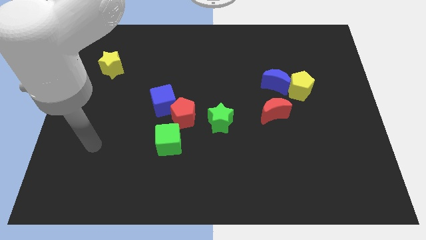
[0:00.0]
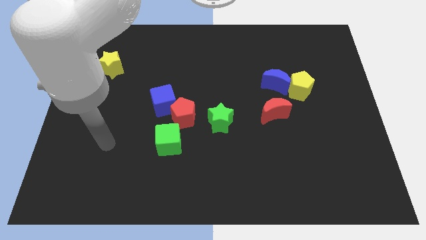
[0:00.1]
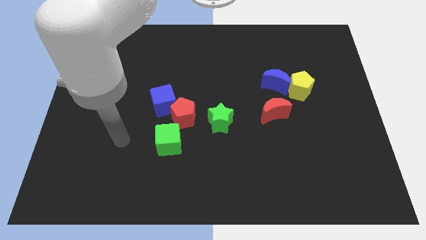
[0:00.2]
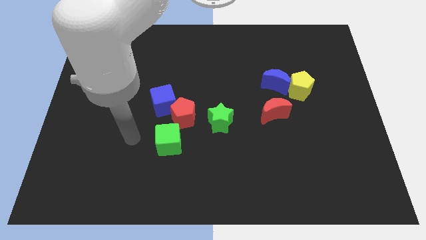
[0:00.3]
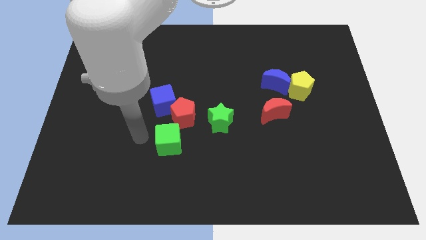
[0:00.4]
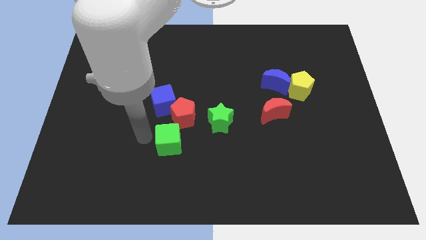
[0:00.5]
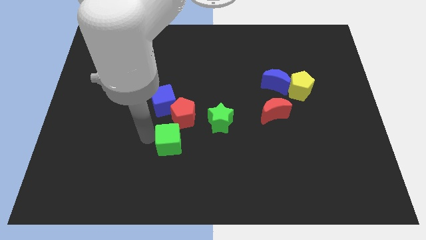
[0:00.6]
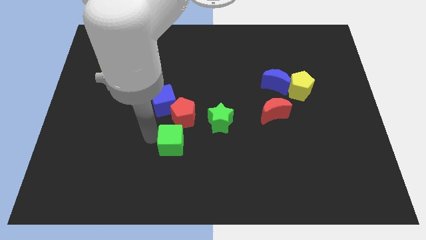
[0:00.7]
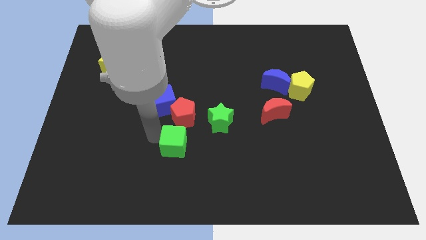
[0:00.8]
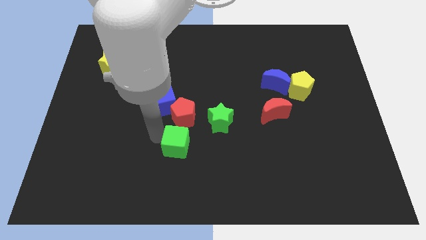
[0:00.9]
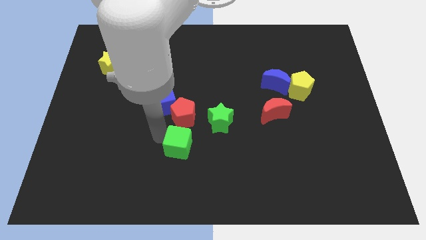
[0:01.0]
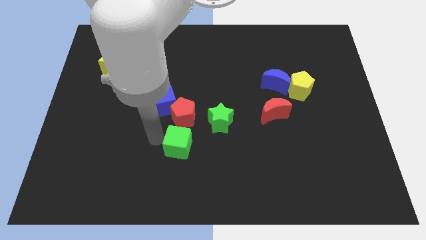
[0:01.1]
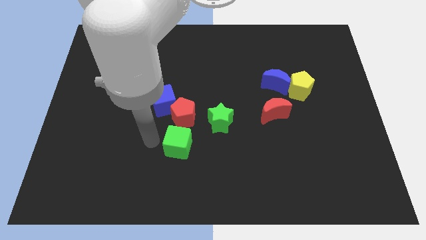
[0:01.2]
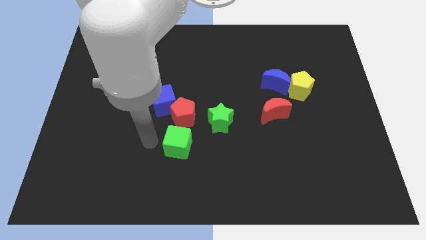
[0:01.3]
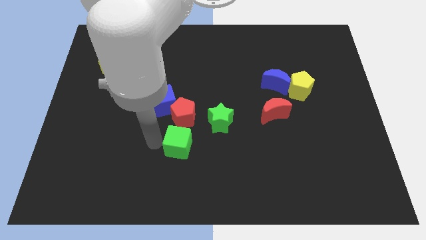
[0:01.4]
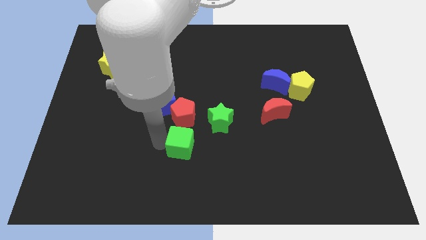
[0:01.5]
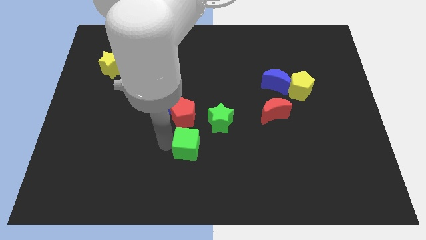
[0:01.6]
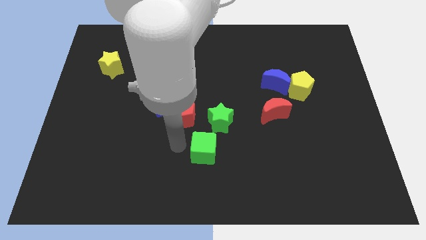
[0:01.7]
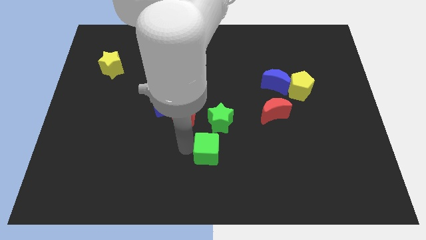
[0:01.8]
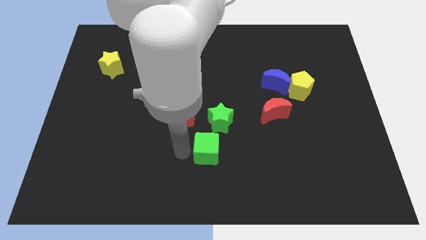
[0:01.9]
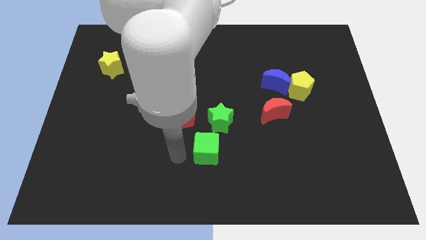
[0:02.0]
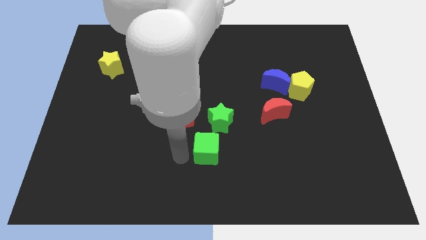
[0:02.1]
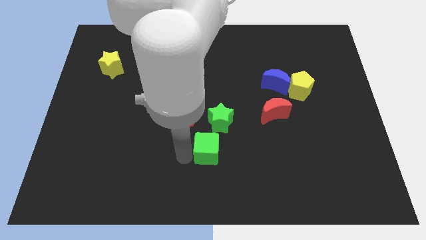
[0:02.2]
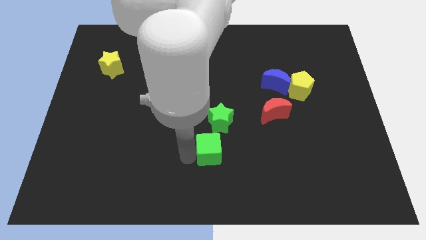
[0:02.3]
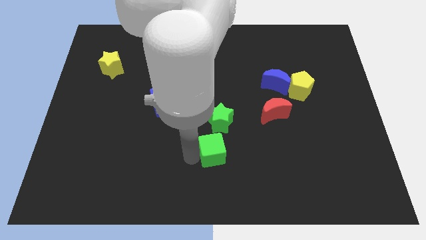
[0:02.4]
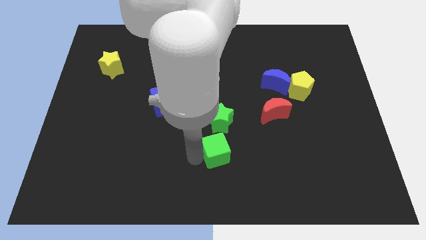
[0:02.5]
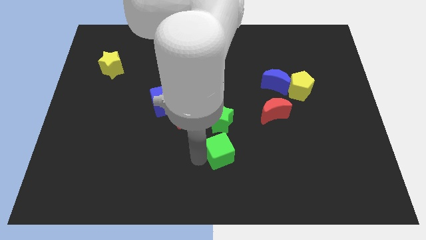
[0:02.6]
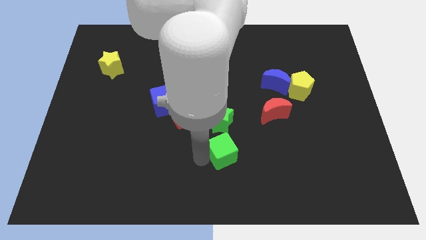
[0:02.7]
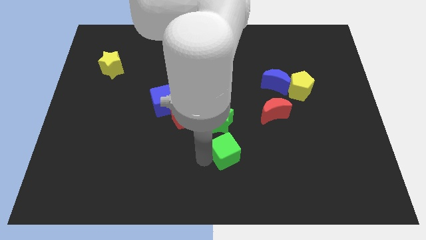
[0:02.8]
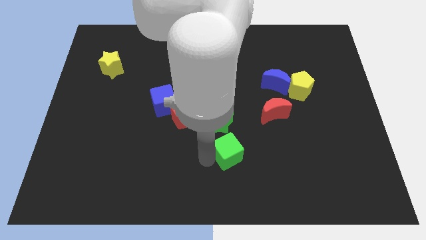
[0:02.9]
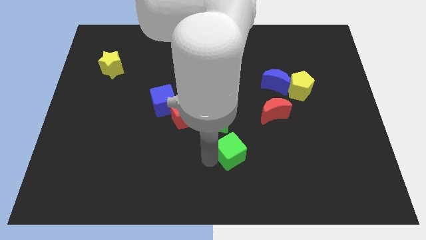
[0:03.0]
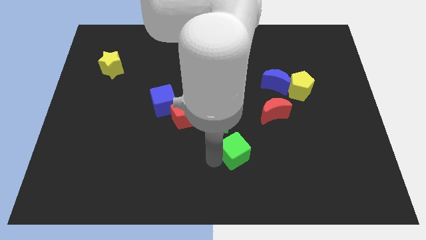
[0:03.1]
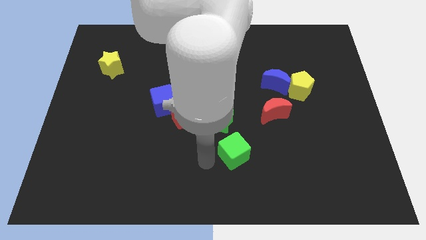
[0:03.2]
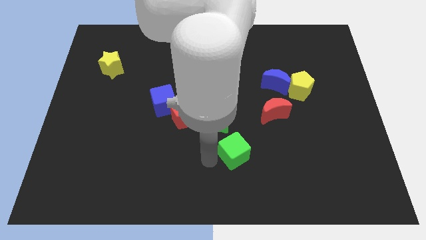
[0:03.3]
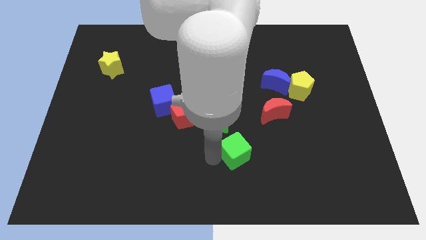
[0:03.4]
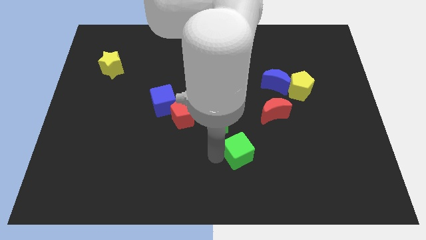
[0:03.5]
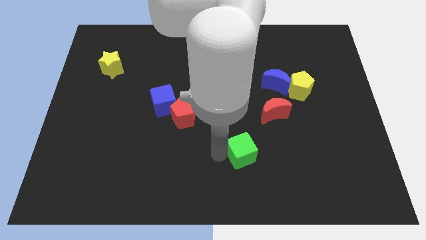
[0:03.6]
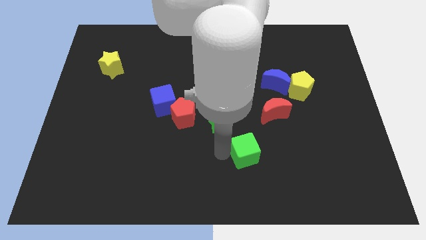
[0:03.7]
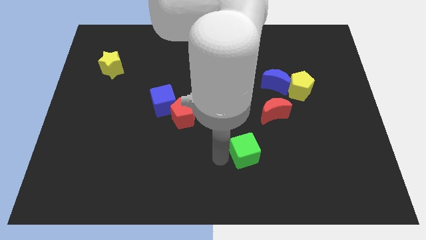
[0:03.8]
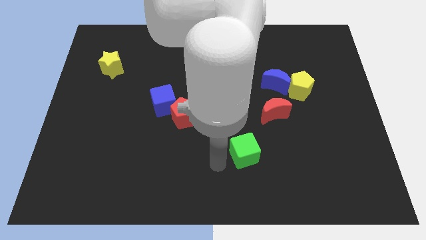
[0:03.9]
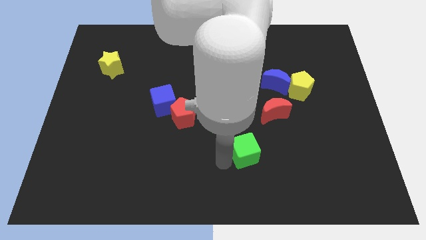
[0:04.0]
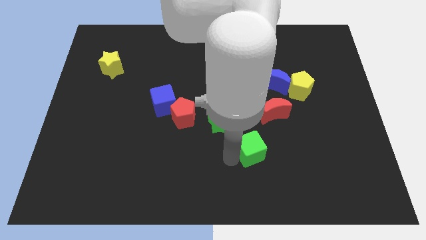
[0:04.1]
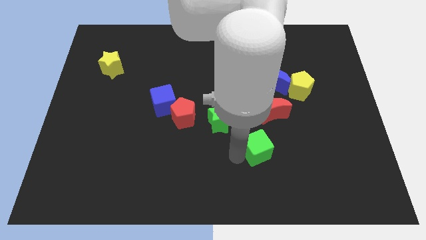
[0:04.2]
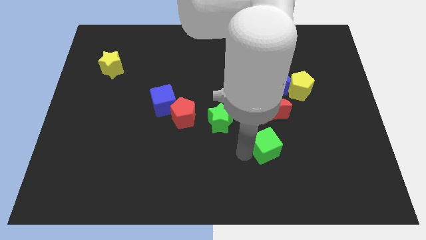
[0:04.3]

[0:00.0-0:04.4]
move the green cube to the right

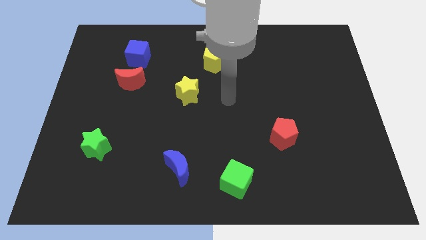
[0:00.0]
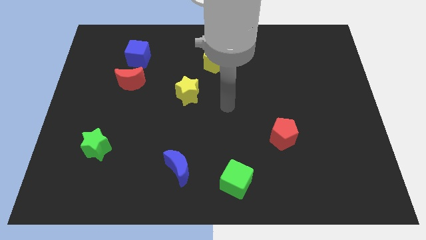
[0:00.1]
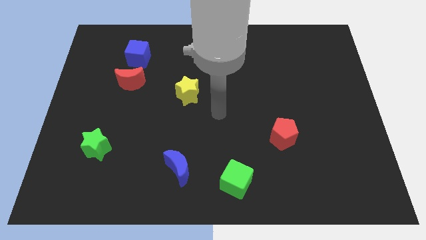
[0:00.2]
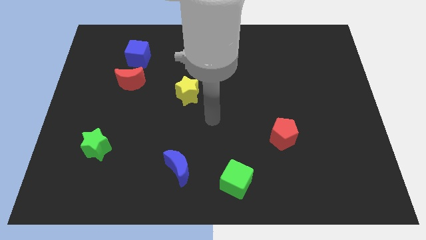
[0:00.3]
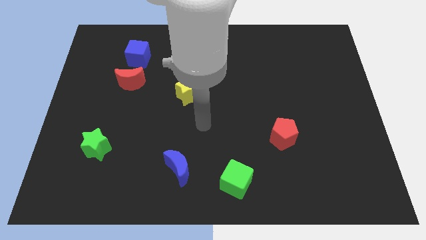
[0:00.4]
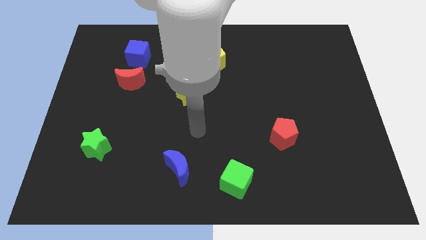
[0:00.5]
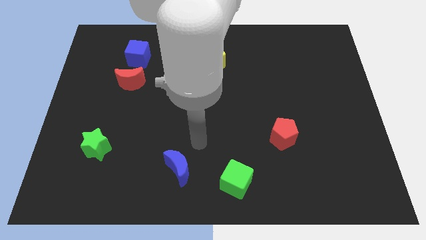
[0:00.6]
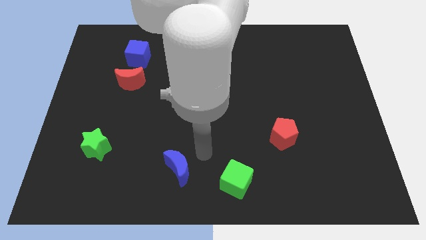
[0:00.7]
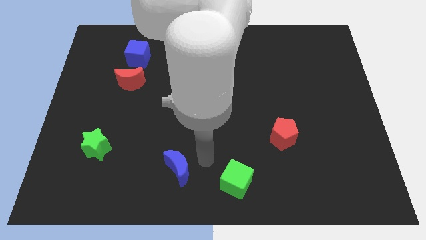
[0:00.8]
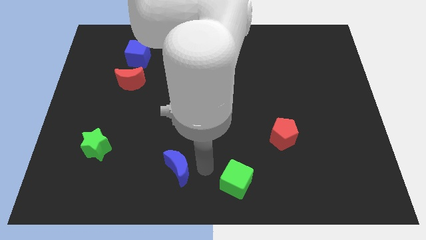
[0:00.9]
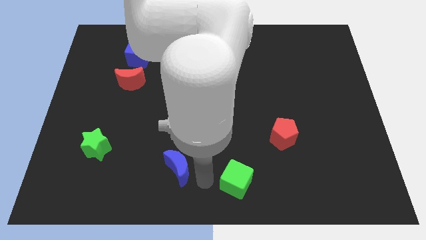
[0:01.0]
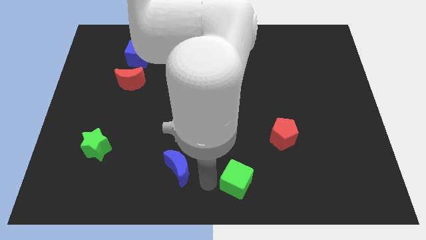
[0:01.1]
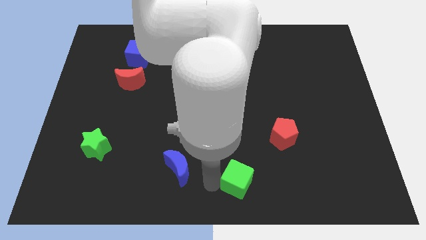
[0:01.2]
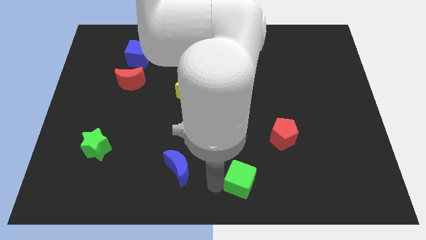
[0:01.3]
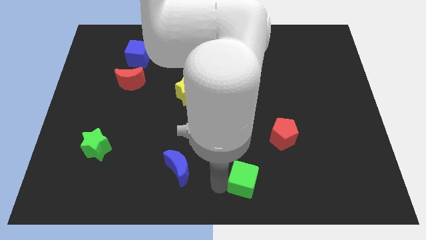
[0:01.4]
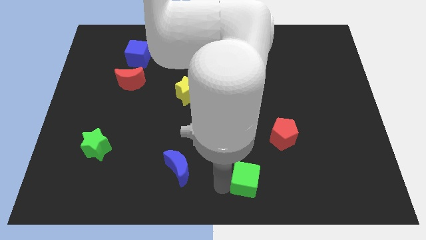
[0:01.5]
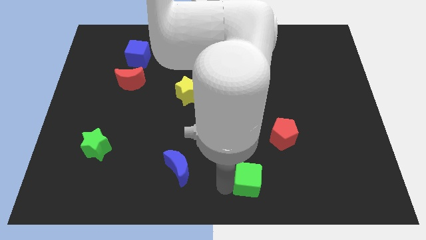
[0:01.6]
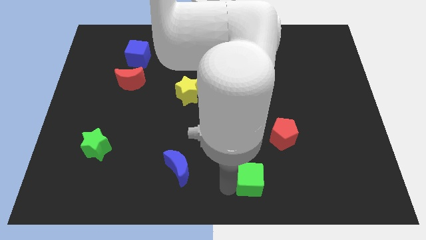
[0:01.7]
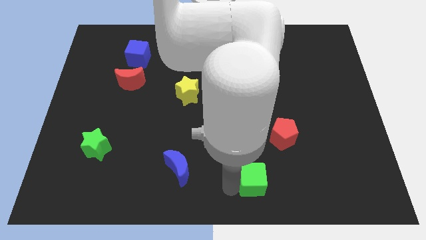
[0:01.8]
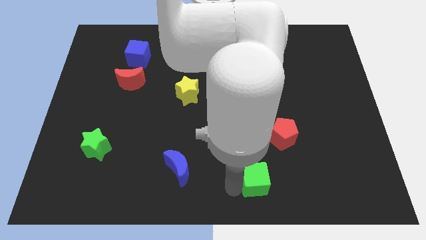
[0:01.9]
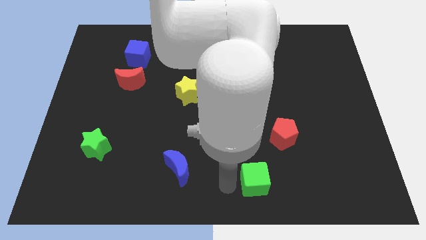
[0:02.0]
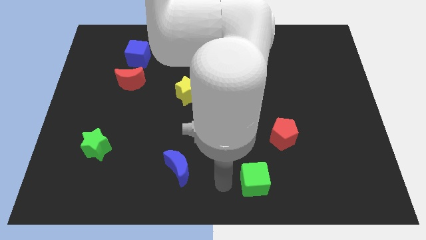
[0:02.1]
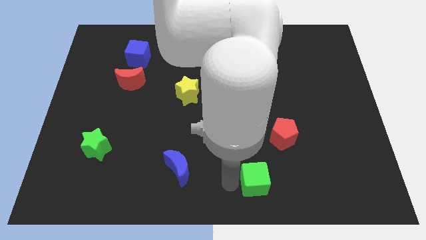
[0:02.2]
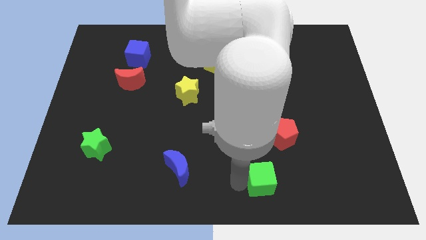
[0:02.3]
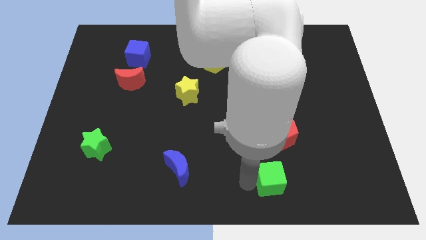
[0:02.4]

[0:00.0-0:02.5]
slide the green cube right a little

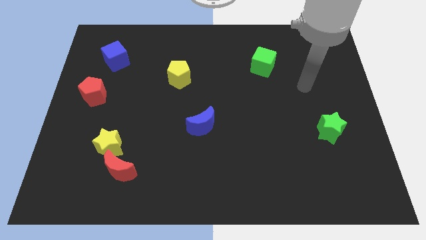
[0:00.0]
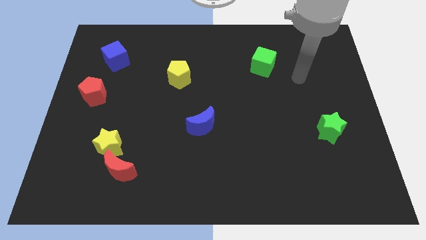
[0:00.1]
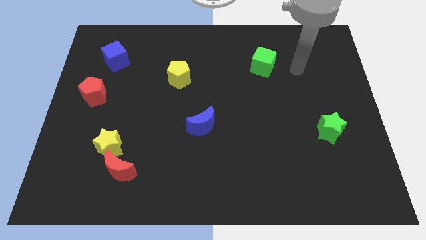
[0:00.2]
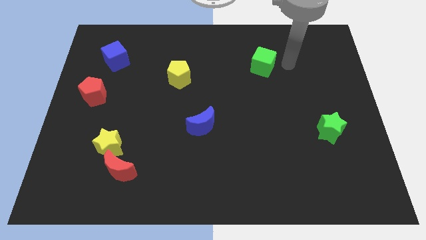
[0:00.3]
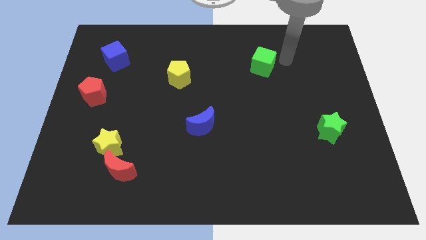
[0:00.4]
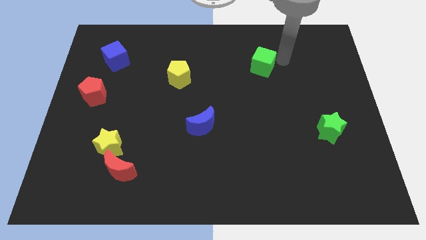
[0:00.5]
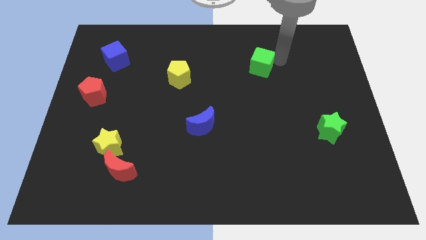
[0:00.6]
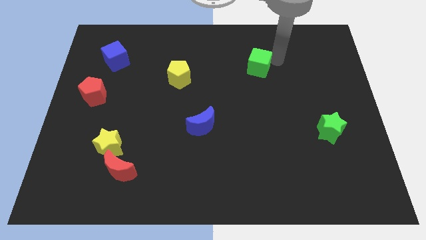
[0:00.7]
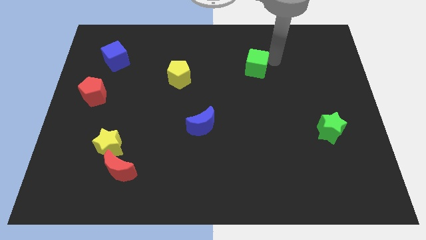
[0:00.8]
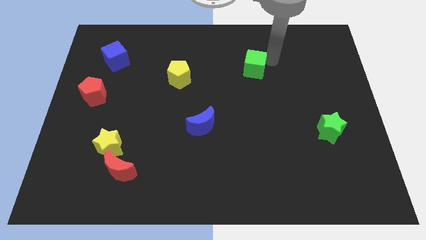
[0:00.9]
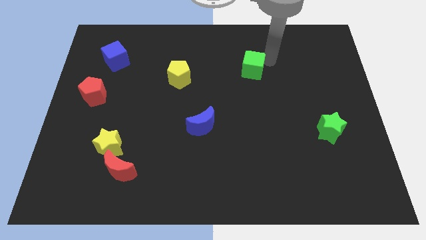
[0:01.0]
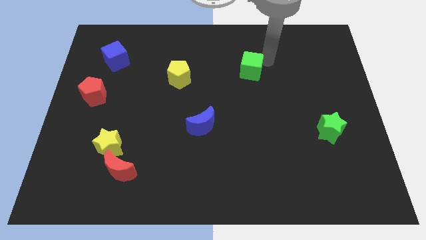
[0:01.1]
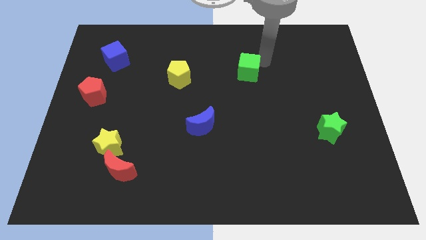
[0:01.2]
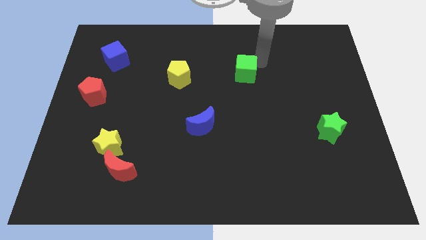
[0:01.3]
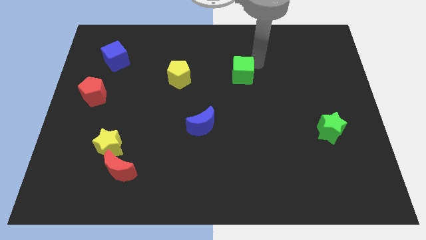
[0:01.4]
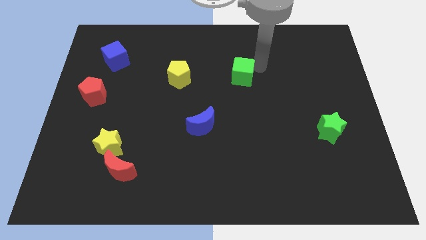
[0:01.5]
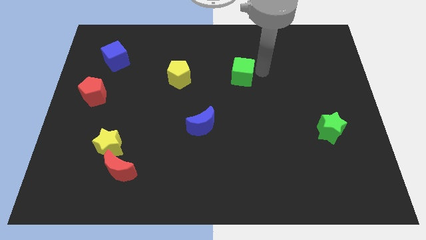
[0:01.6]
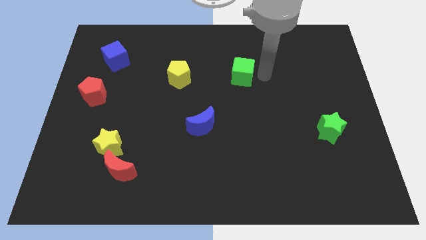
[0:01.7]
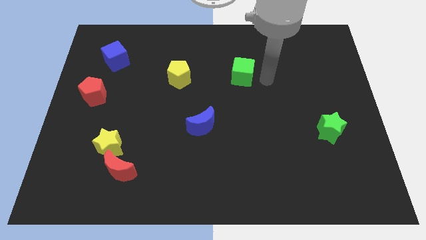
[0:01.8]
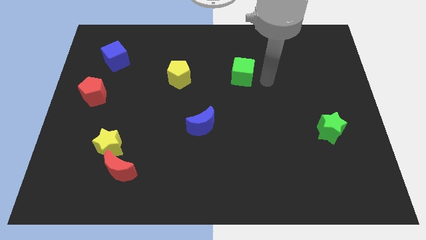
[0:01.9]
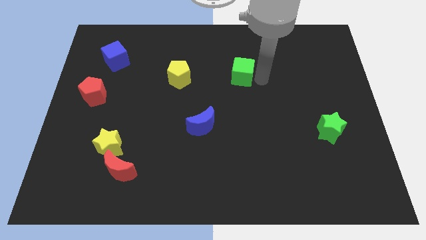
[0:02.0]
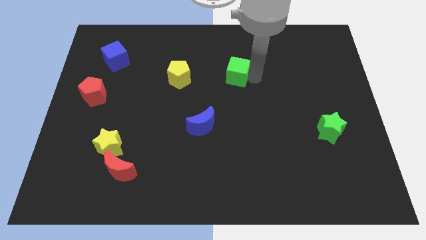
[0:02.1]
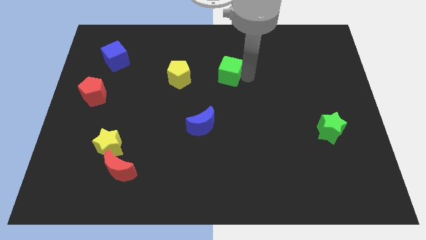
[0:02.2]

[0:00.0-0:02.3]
move the green cube a bit left
